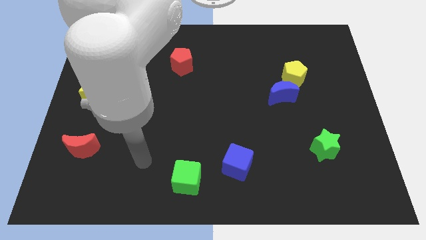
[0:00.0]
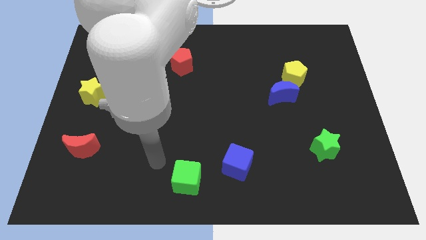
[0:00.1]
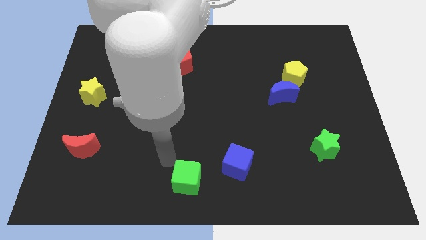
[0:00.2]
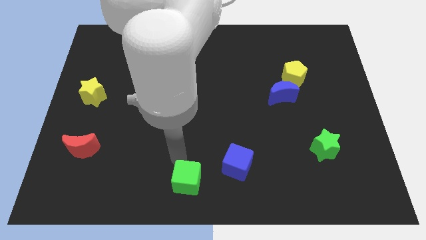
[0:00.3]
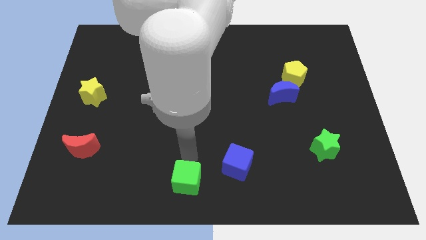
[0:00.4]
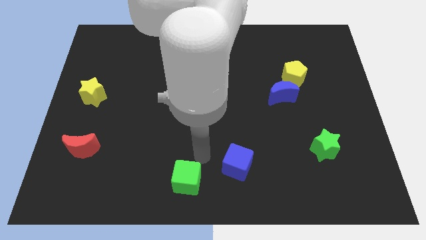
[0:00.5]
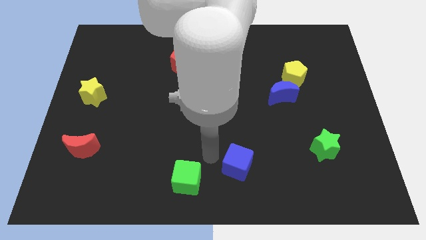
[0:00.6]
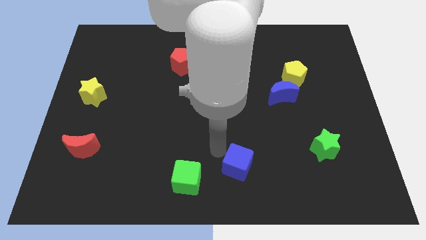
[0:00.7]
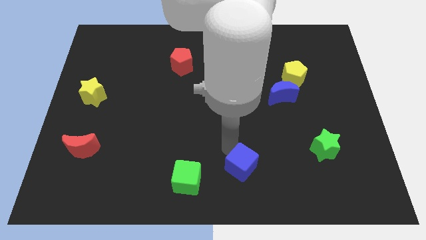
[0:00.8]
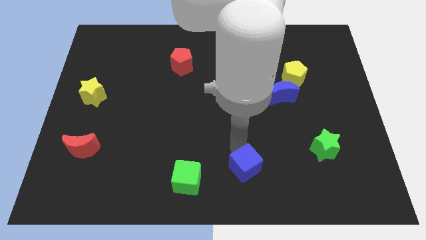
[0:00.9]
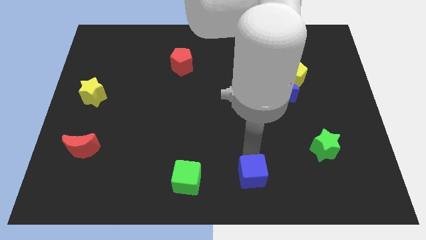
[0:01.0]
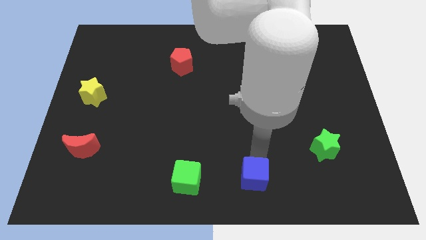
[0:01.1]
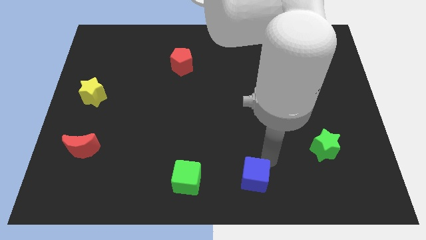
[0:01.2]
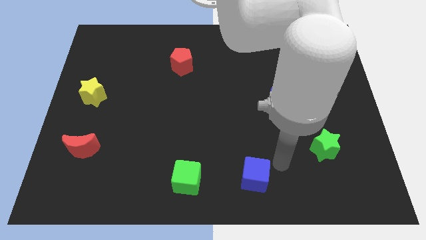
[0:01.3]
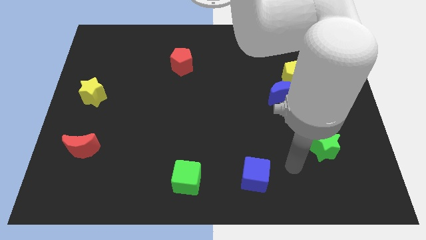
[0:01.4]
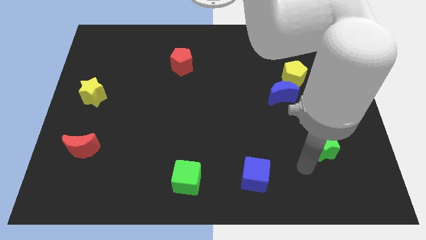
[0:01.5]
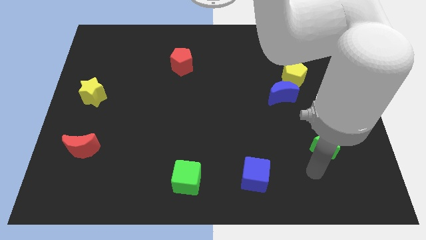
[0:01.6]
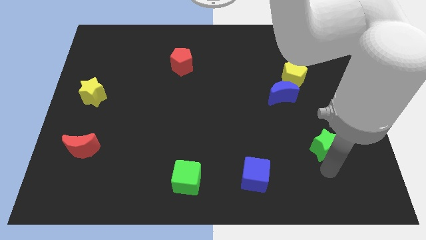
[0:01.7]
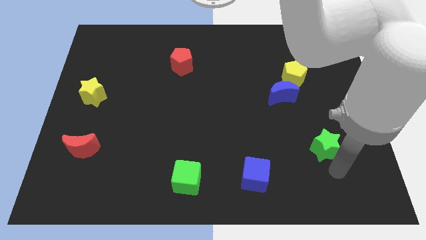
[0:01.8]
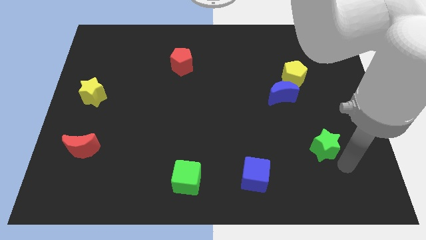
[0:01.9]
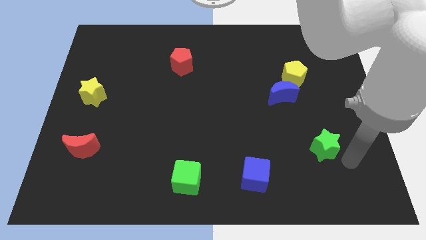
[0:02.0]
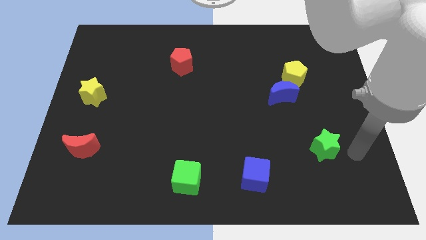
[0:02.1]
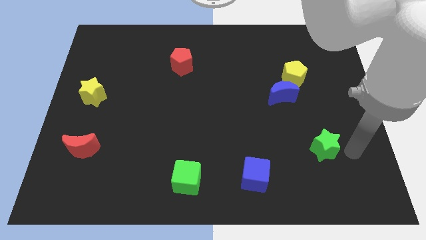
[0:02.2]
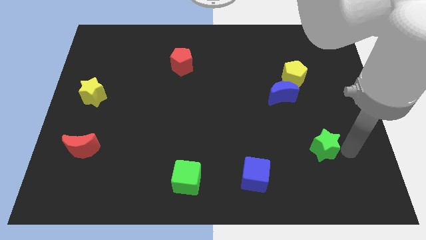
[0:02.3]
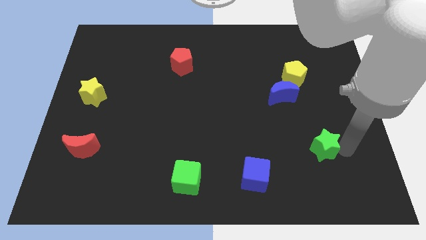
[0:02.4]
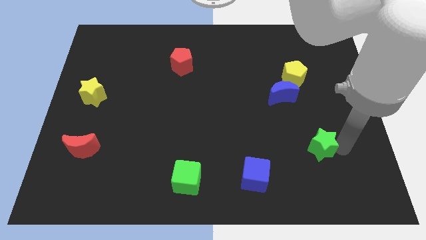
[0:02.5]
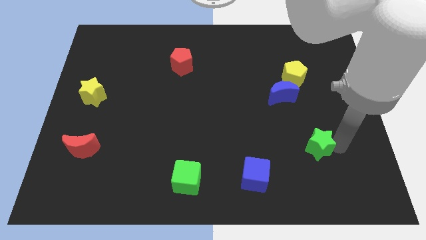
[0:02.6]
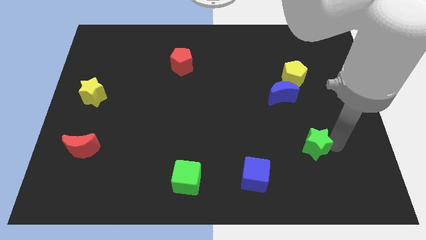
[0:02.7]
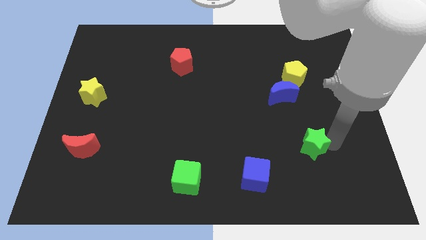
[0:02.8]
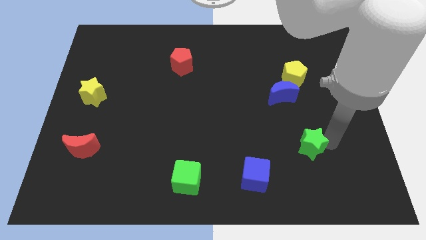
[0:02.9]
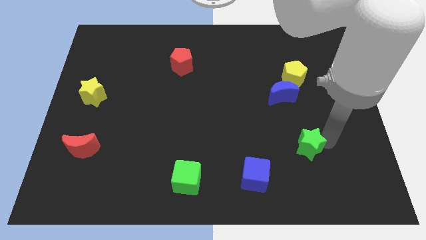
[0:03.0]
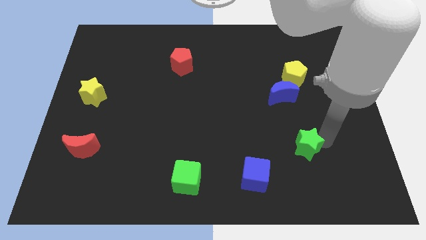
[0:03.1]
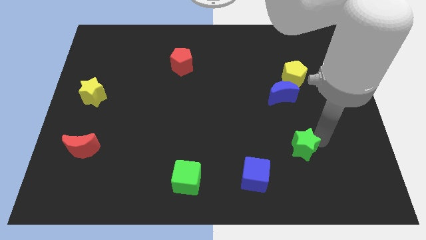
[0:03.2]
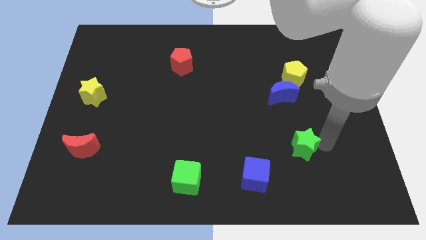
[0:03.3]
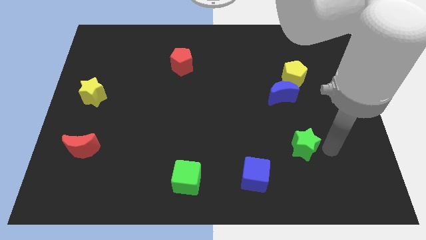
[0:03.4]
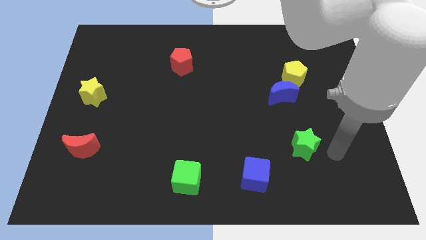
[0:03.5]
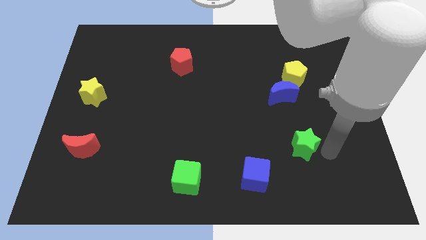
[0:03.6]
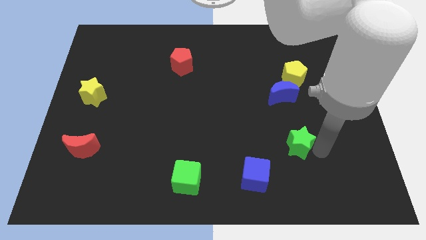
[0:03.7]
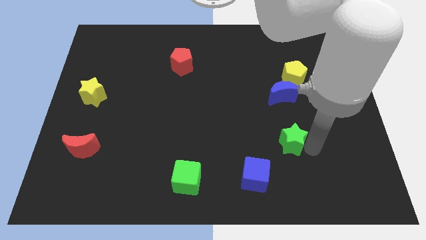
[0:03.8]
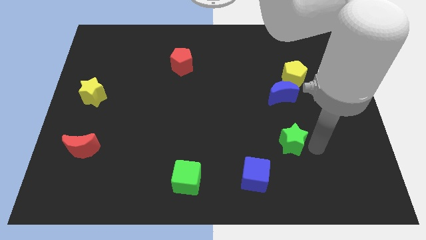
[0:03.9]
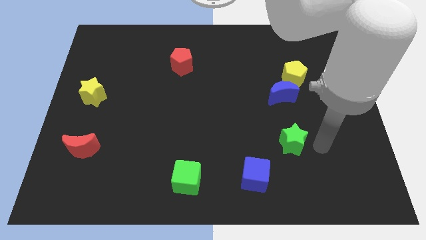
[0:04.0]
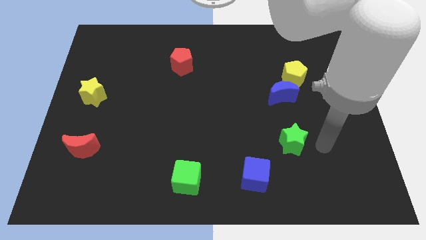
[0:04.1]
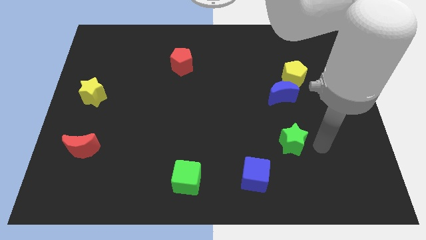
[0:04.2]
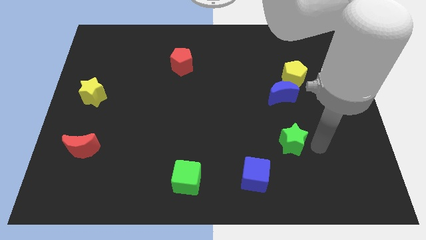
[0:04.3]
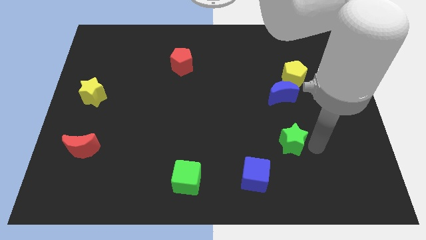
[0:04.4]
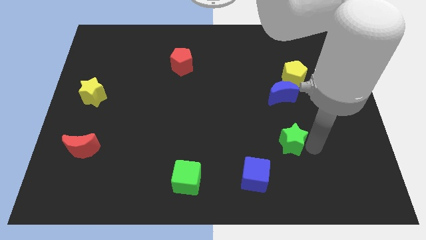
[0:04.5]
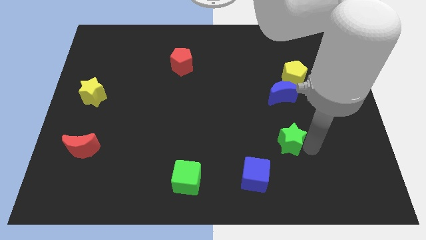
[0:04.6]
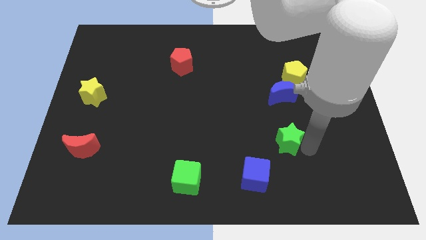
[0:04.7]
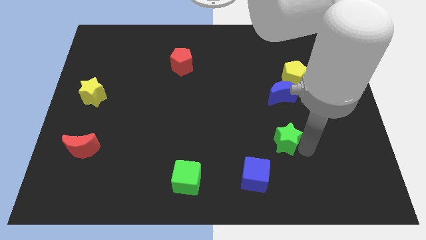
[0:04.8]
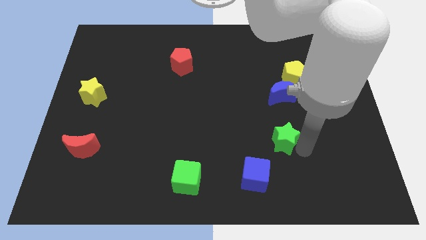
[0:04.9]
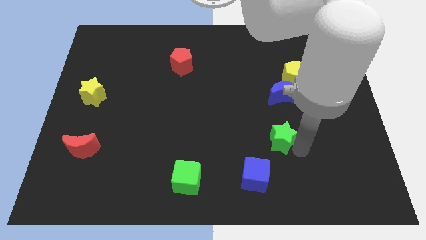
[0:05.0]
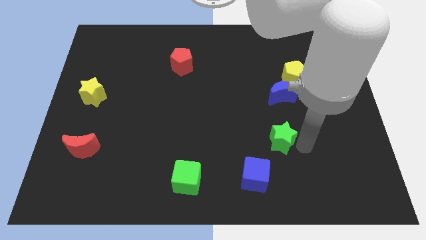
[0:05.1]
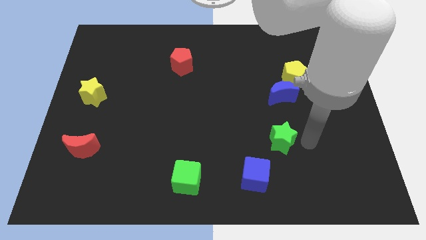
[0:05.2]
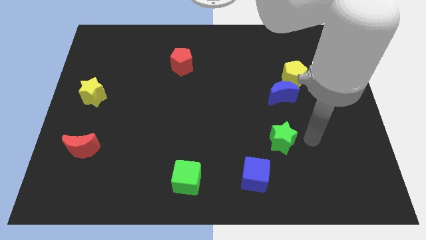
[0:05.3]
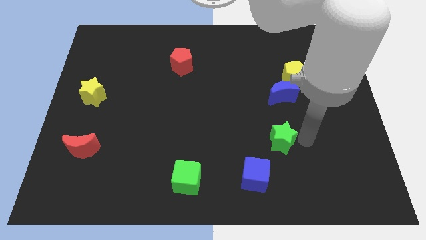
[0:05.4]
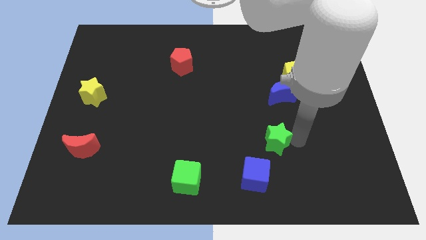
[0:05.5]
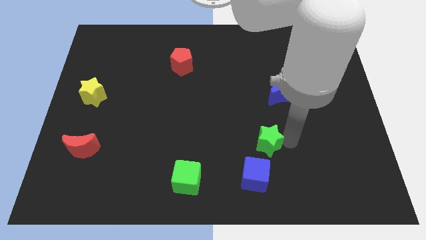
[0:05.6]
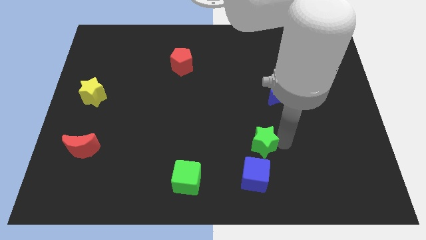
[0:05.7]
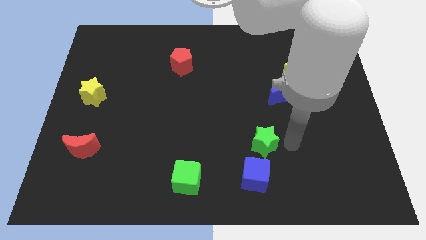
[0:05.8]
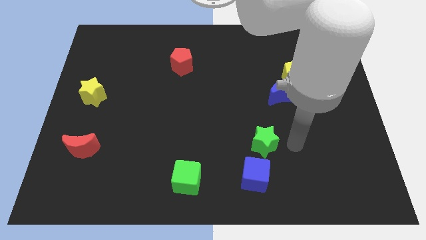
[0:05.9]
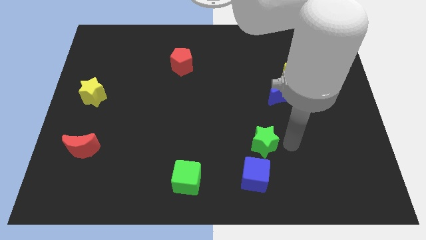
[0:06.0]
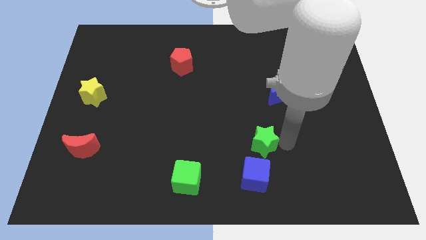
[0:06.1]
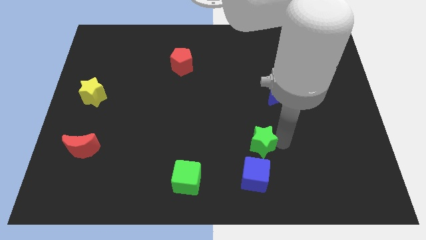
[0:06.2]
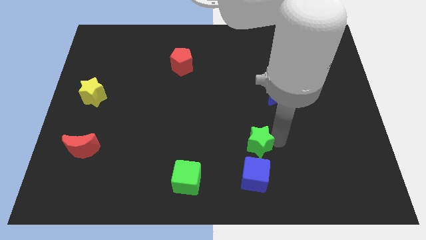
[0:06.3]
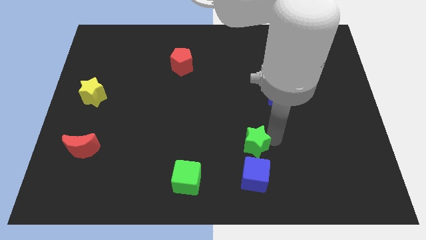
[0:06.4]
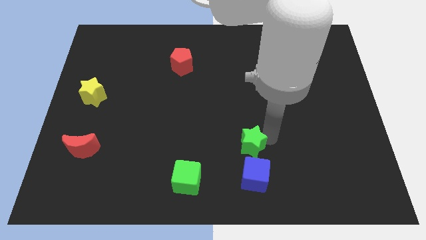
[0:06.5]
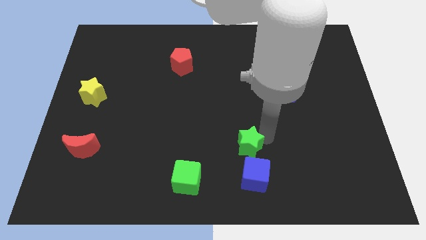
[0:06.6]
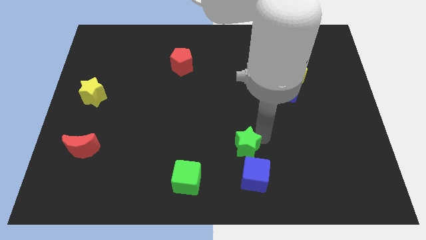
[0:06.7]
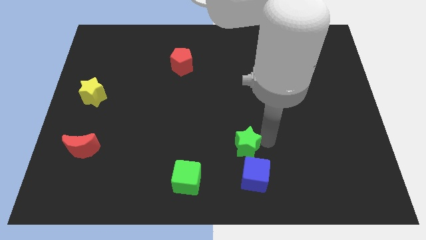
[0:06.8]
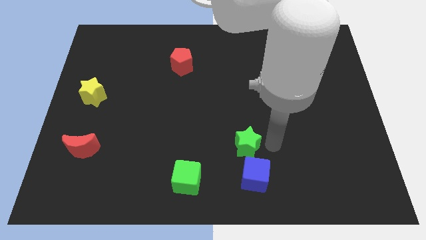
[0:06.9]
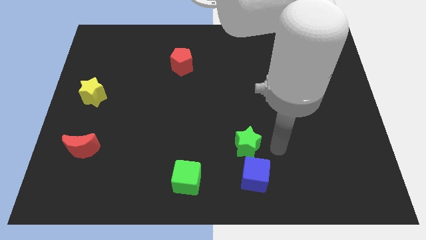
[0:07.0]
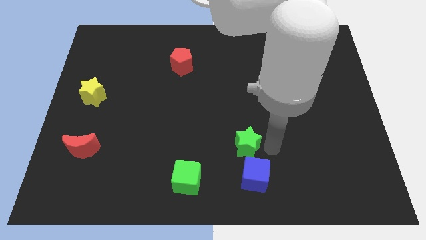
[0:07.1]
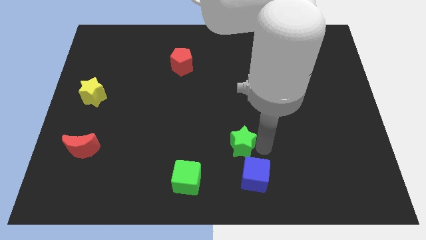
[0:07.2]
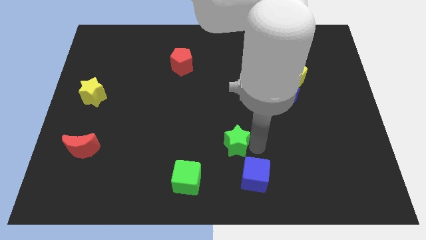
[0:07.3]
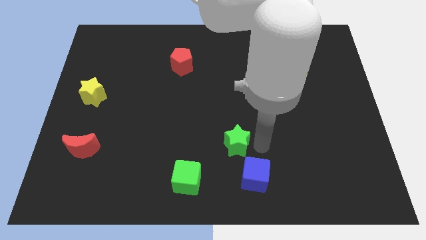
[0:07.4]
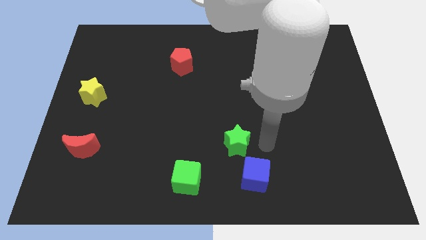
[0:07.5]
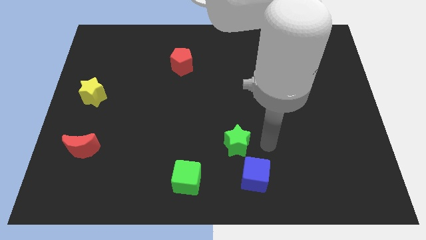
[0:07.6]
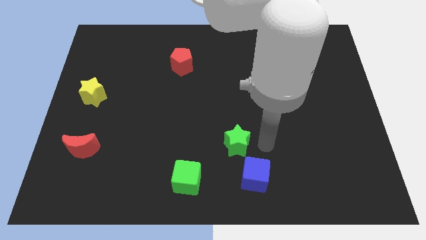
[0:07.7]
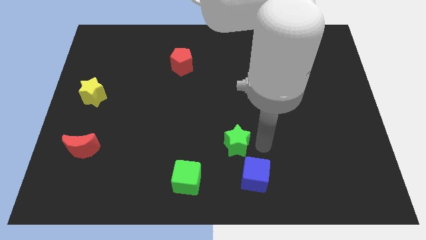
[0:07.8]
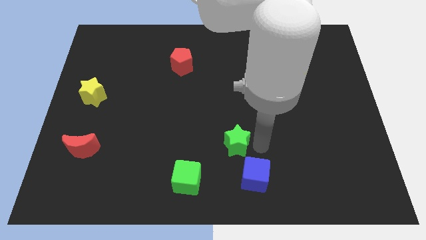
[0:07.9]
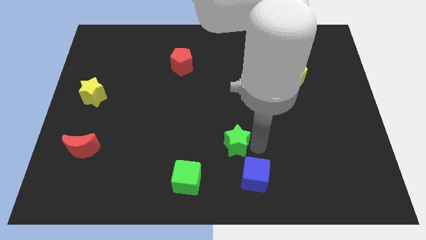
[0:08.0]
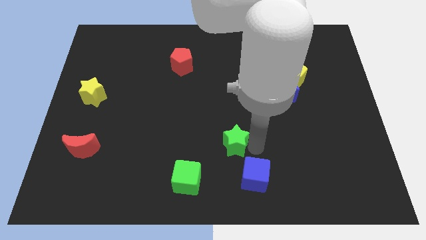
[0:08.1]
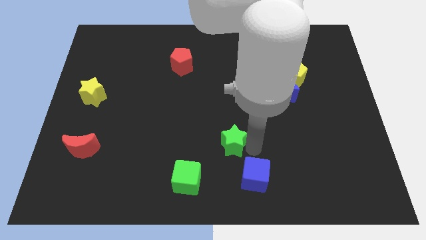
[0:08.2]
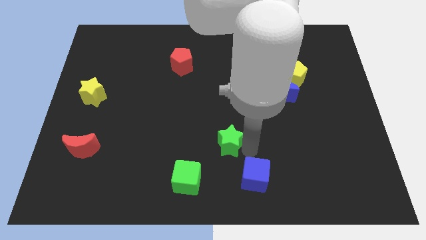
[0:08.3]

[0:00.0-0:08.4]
push the green star left
